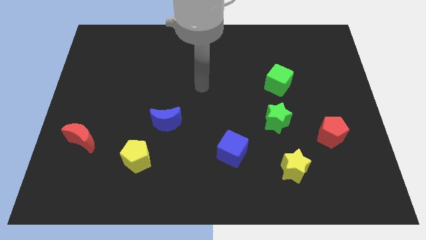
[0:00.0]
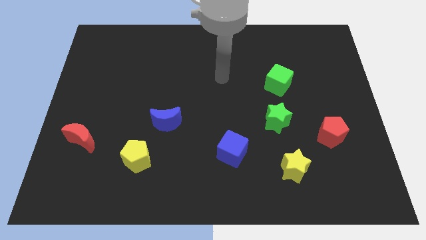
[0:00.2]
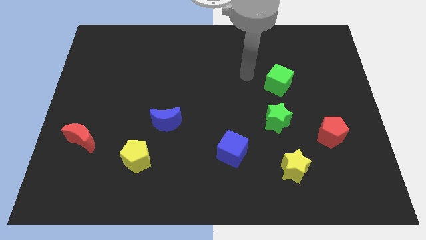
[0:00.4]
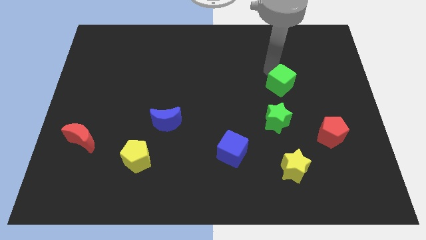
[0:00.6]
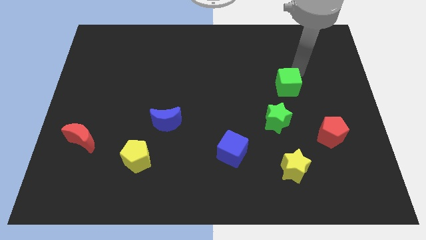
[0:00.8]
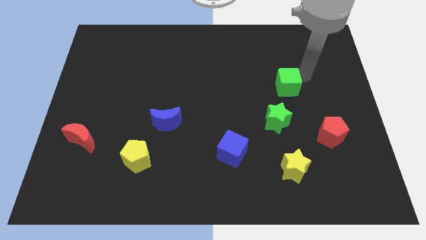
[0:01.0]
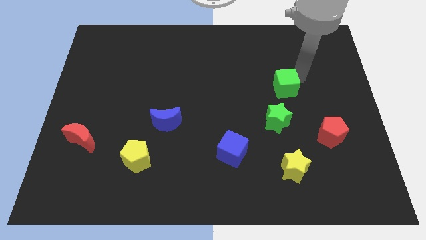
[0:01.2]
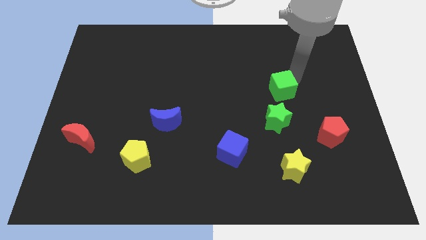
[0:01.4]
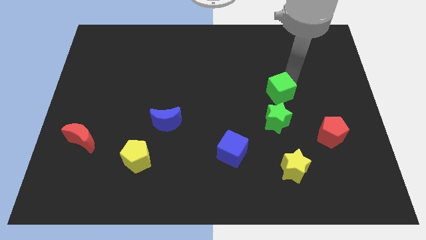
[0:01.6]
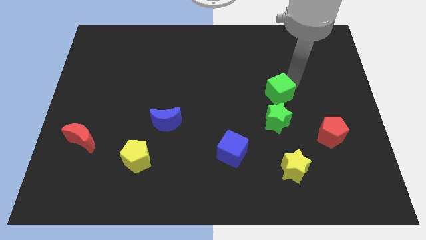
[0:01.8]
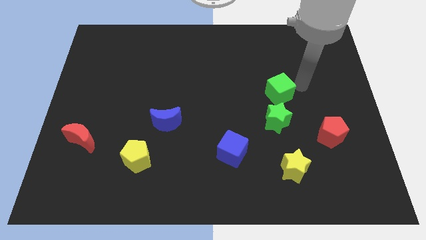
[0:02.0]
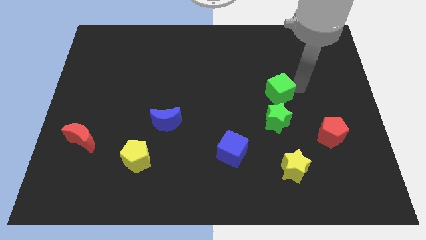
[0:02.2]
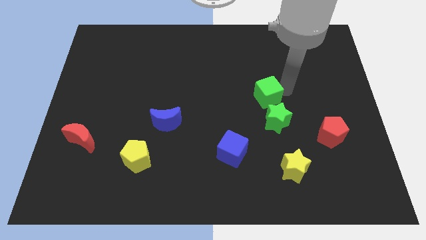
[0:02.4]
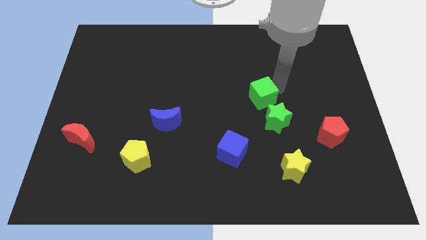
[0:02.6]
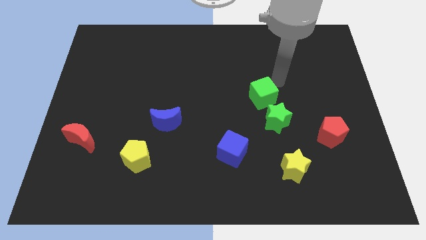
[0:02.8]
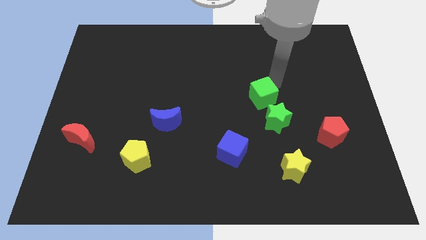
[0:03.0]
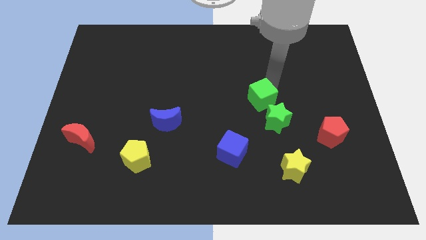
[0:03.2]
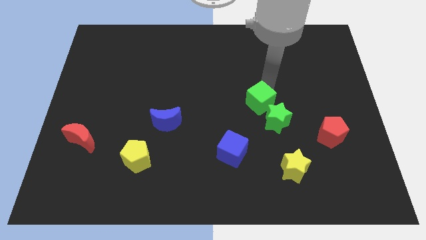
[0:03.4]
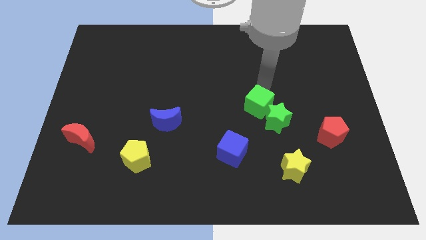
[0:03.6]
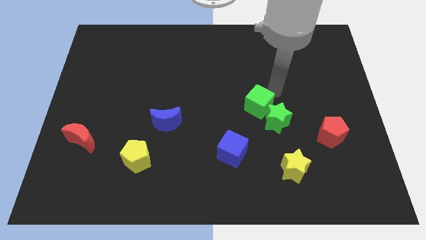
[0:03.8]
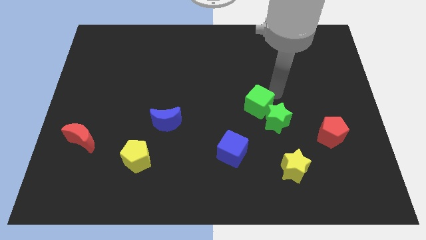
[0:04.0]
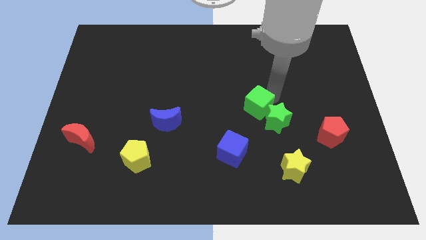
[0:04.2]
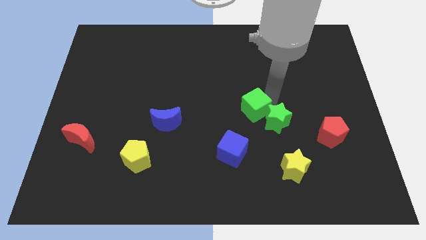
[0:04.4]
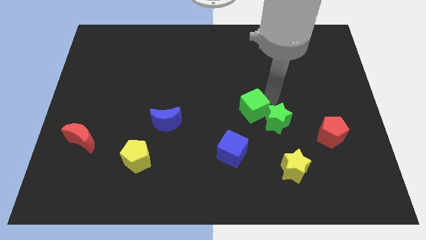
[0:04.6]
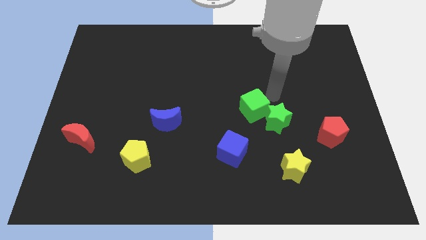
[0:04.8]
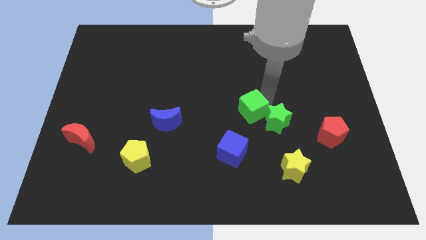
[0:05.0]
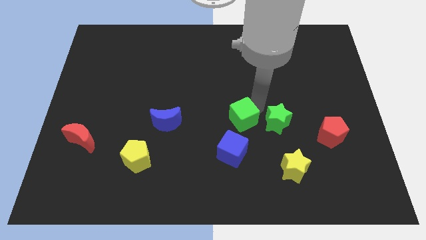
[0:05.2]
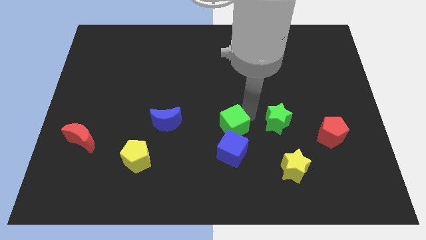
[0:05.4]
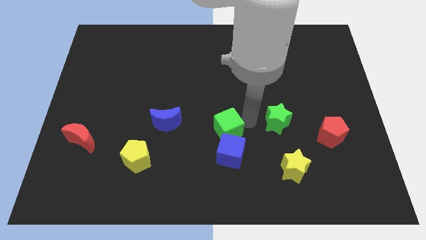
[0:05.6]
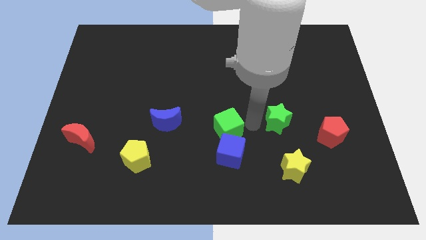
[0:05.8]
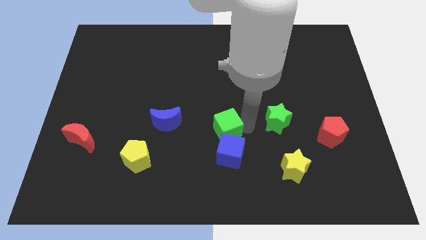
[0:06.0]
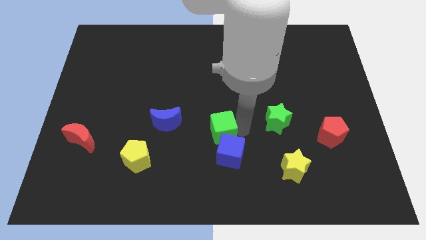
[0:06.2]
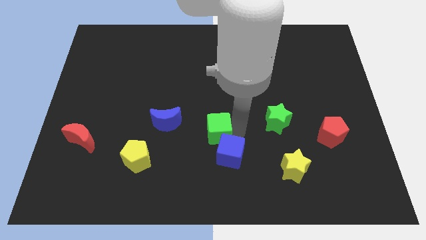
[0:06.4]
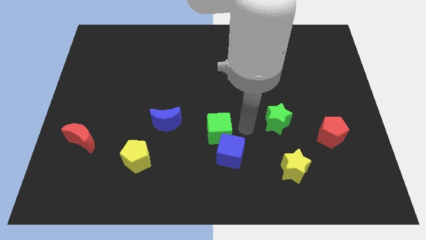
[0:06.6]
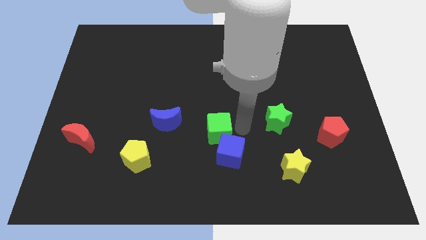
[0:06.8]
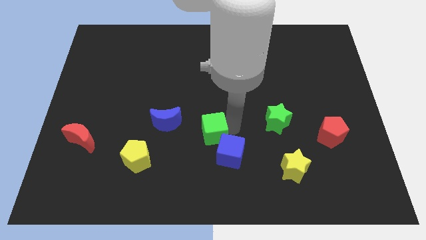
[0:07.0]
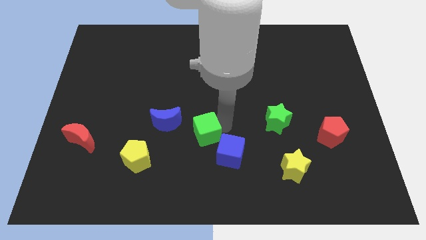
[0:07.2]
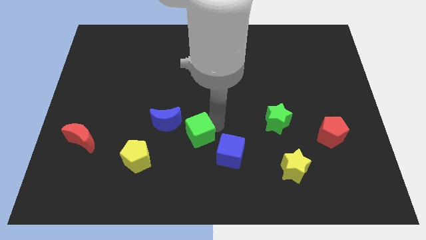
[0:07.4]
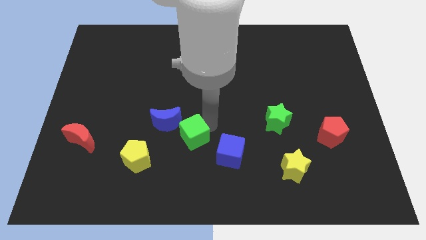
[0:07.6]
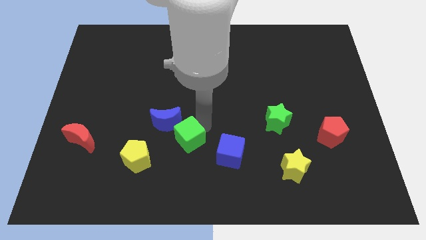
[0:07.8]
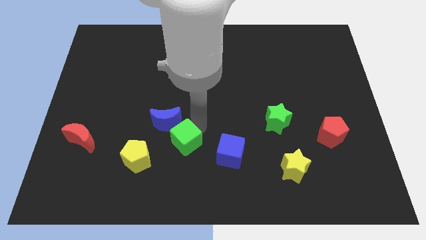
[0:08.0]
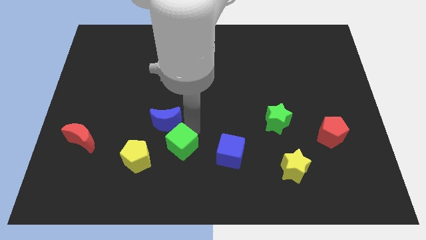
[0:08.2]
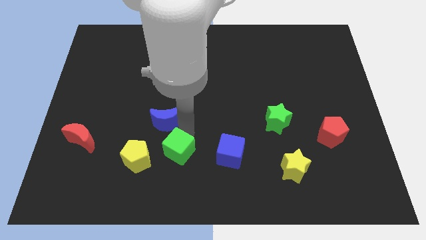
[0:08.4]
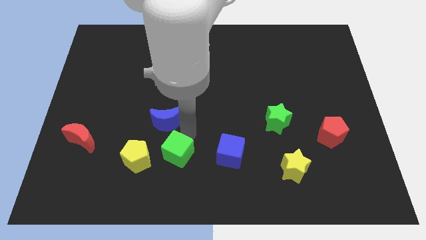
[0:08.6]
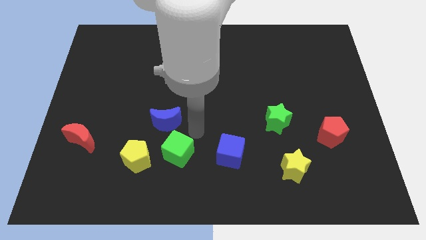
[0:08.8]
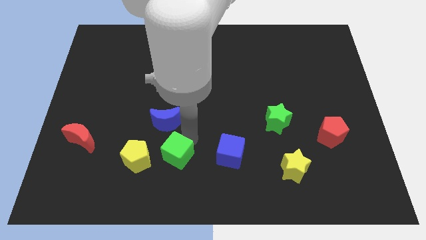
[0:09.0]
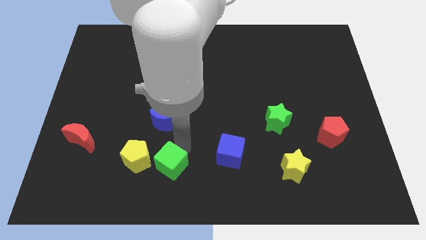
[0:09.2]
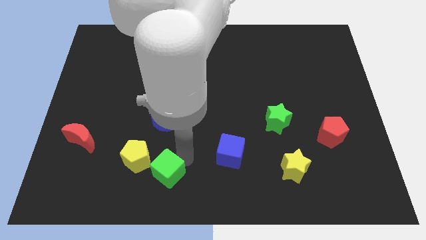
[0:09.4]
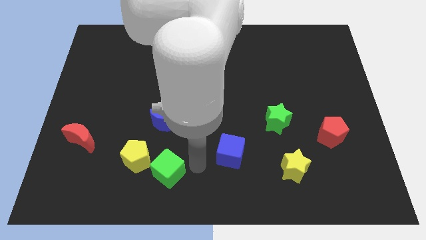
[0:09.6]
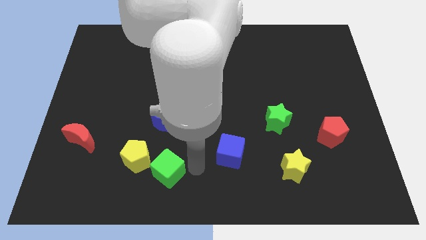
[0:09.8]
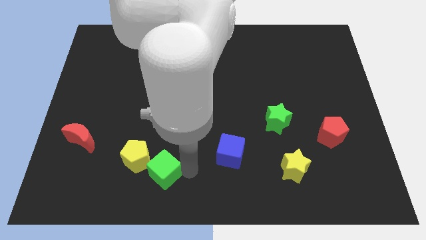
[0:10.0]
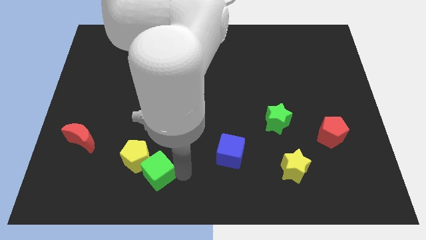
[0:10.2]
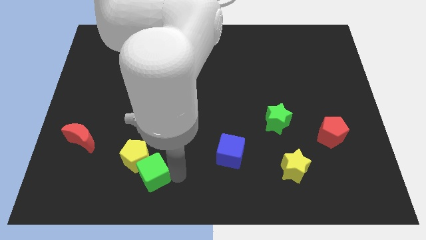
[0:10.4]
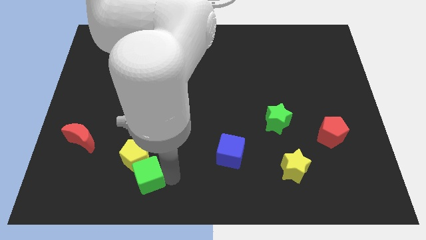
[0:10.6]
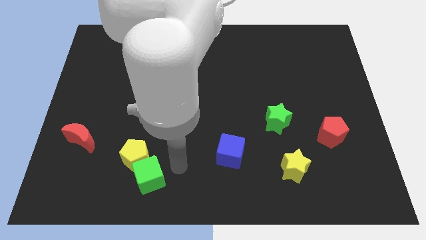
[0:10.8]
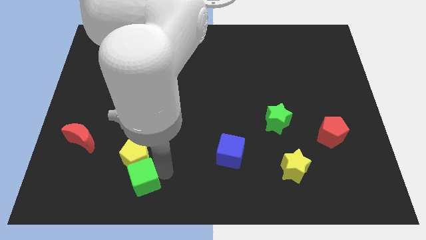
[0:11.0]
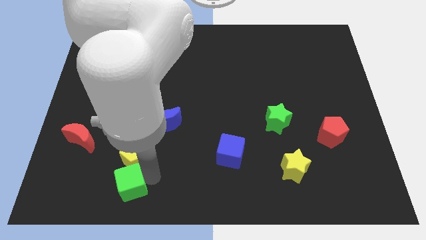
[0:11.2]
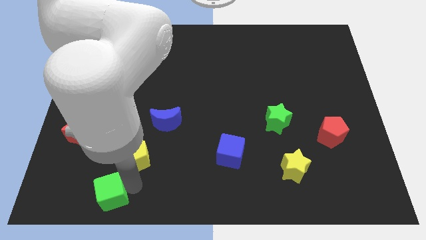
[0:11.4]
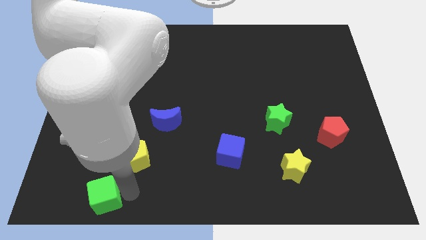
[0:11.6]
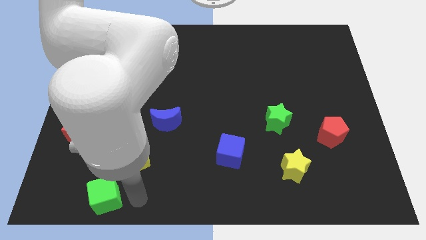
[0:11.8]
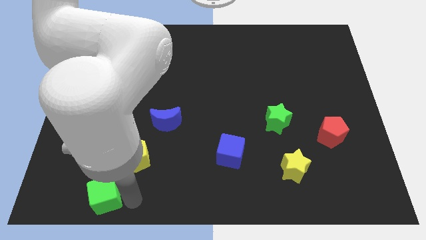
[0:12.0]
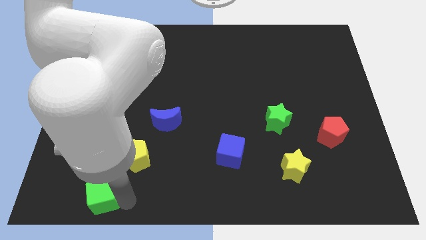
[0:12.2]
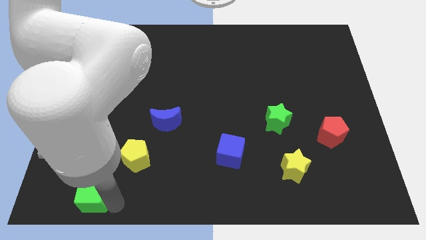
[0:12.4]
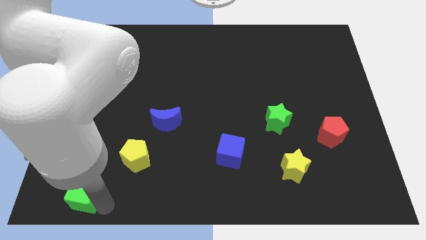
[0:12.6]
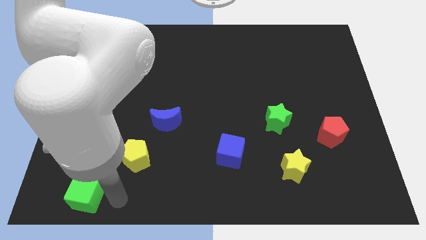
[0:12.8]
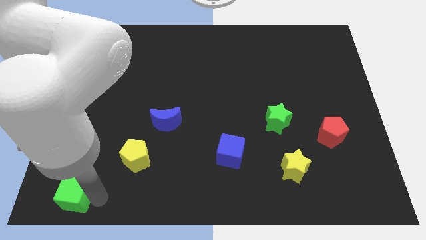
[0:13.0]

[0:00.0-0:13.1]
move the green cube to the bottom left corner
